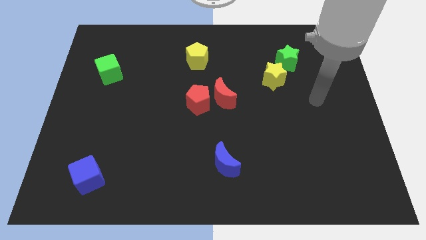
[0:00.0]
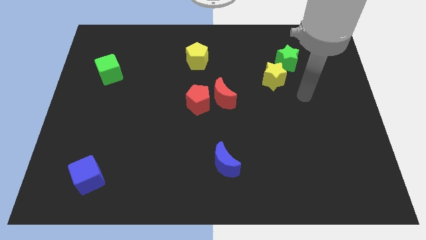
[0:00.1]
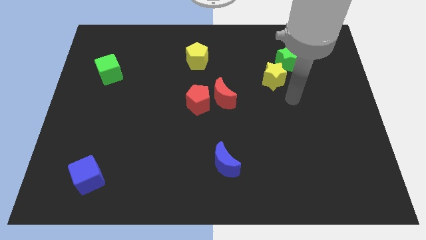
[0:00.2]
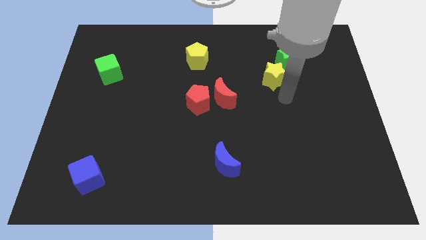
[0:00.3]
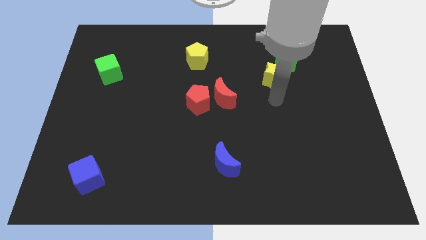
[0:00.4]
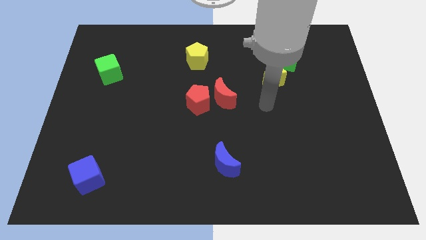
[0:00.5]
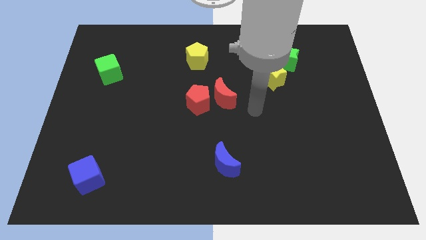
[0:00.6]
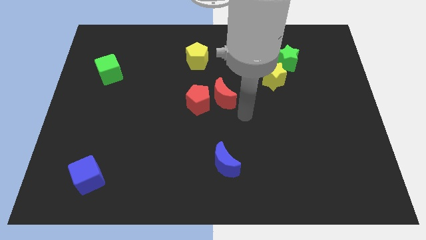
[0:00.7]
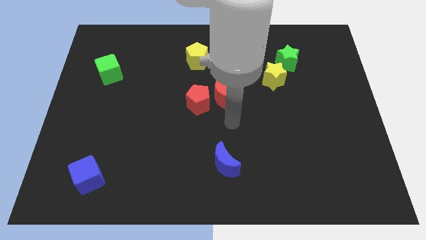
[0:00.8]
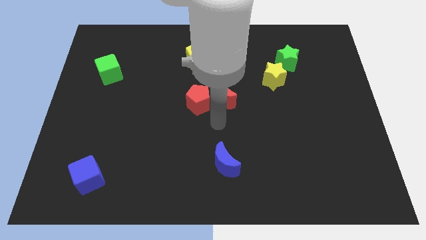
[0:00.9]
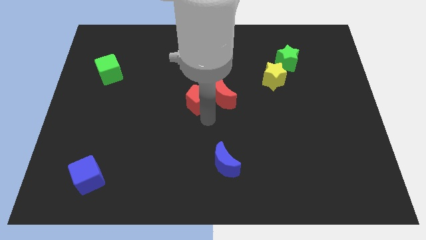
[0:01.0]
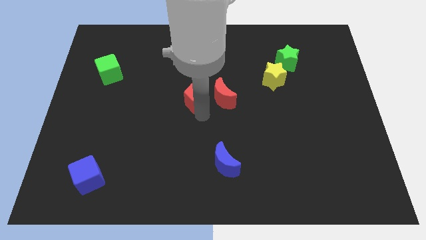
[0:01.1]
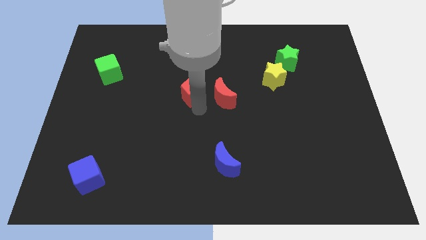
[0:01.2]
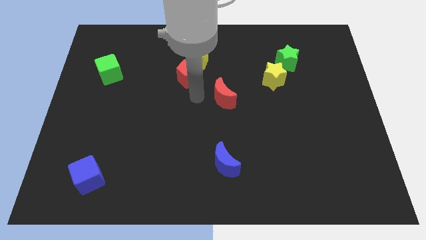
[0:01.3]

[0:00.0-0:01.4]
move the red moon away from the red pentagon

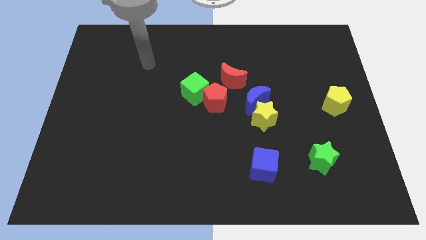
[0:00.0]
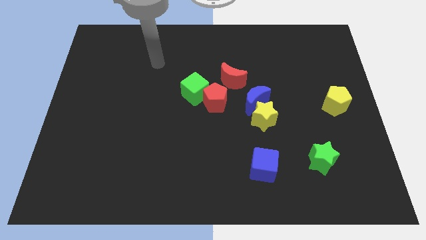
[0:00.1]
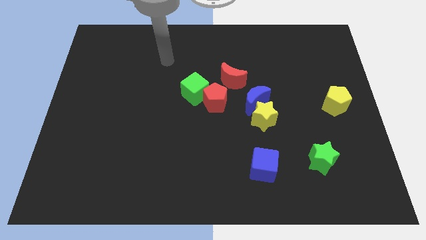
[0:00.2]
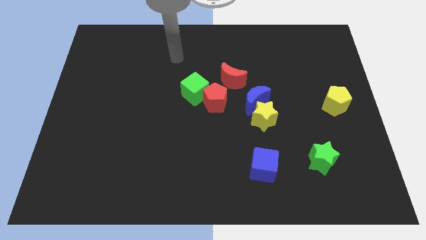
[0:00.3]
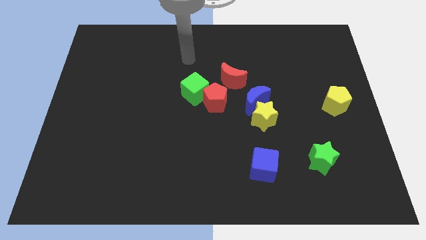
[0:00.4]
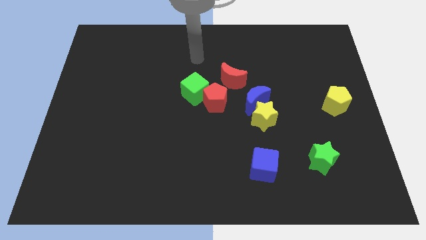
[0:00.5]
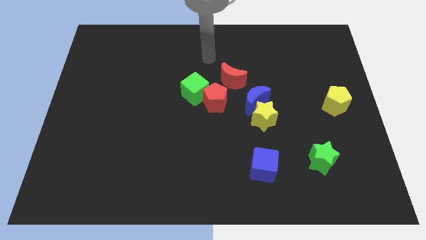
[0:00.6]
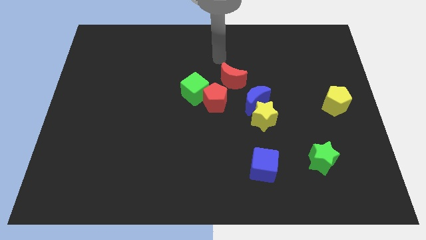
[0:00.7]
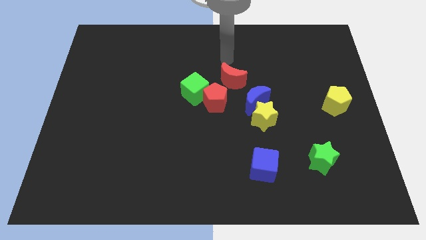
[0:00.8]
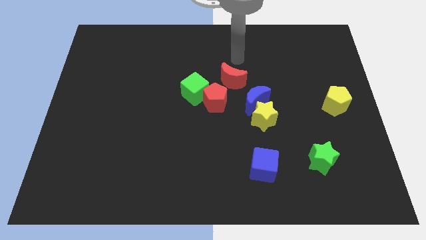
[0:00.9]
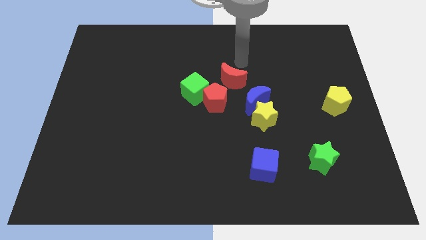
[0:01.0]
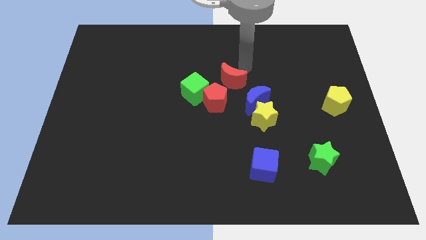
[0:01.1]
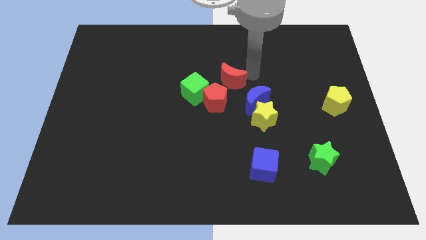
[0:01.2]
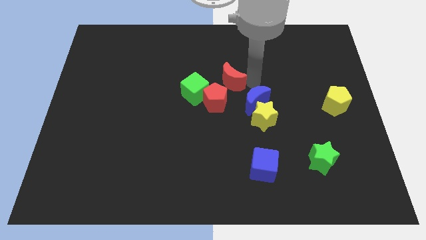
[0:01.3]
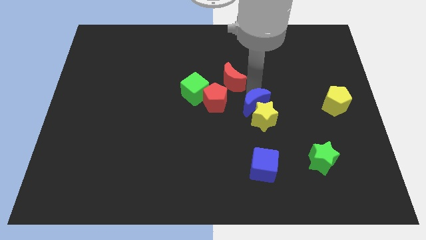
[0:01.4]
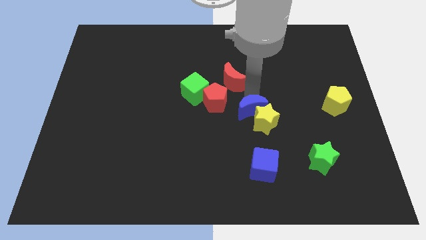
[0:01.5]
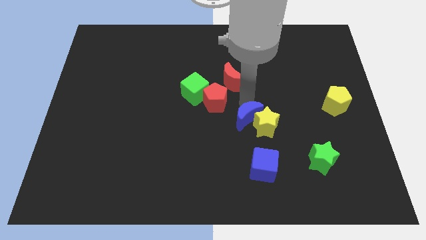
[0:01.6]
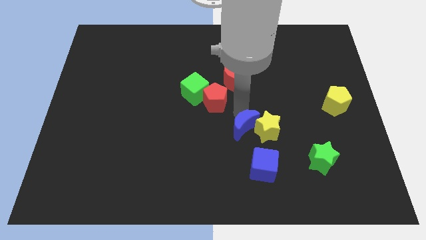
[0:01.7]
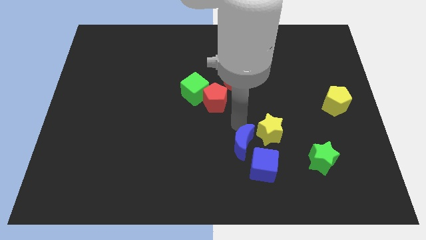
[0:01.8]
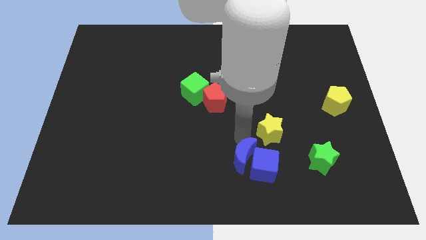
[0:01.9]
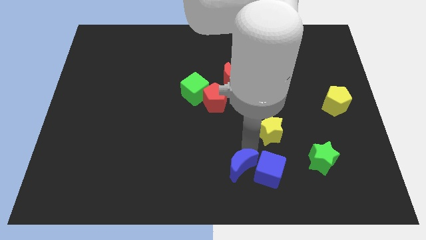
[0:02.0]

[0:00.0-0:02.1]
pull the yellow star apart from the blue moon

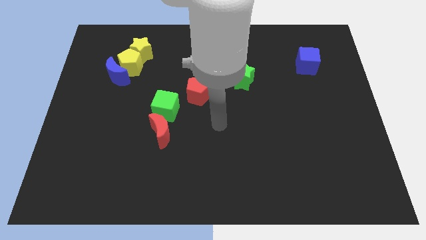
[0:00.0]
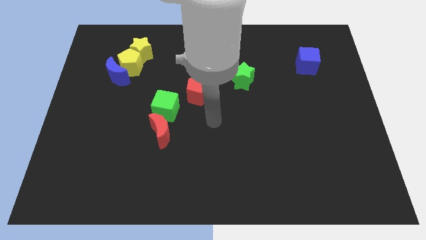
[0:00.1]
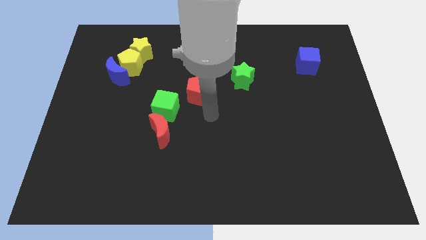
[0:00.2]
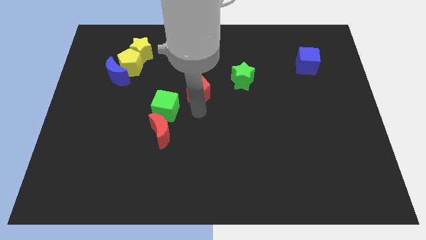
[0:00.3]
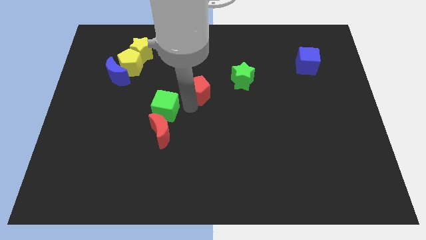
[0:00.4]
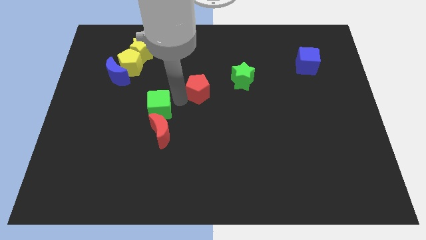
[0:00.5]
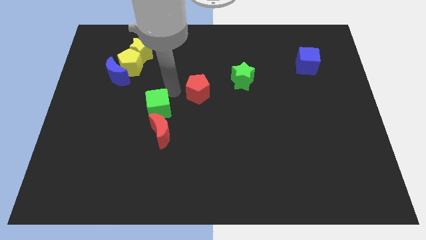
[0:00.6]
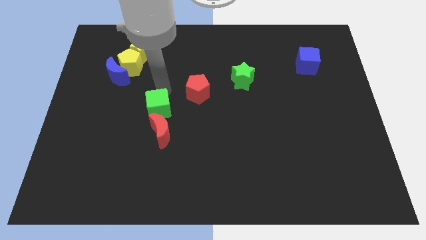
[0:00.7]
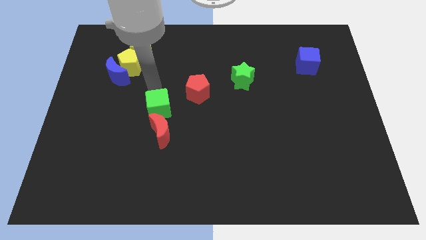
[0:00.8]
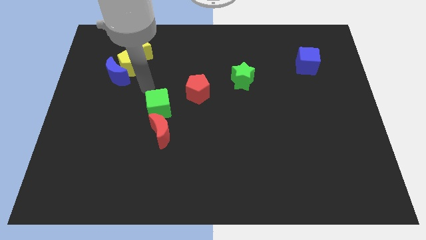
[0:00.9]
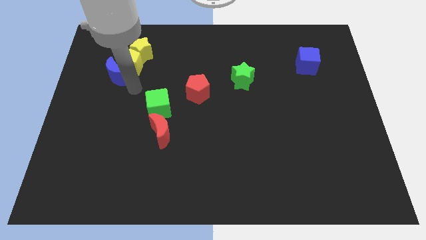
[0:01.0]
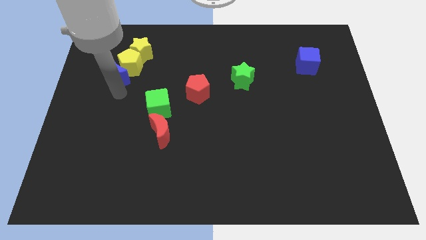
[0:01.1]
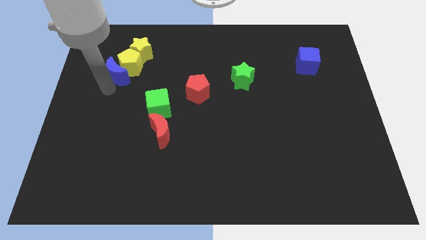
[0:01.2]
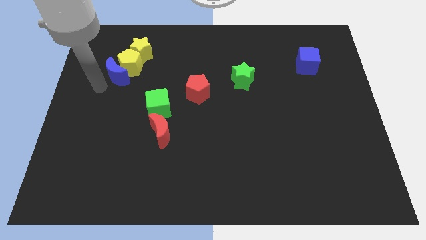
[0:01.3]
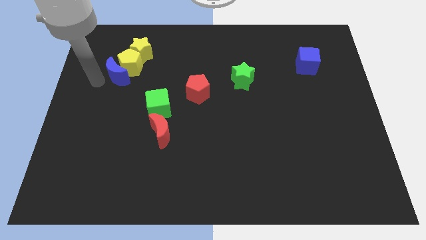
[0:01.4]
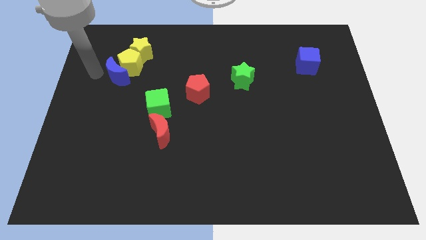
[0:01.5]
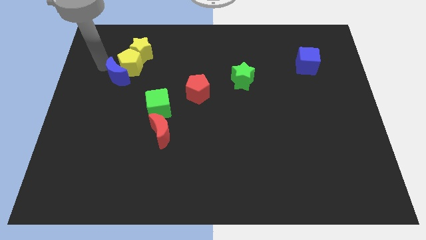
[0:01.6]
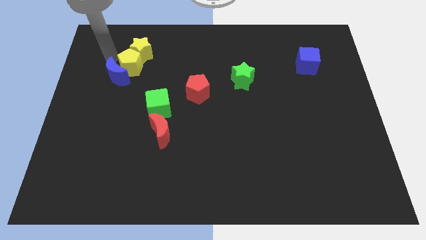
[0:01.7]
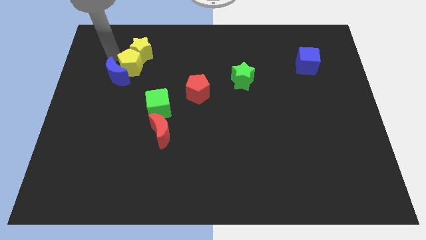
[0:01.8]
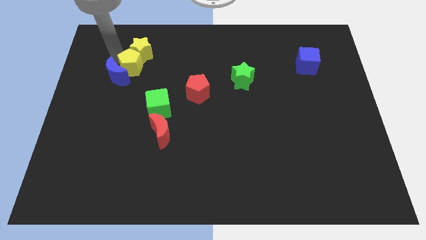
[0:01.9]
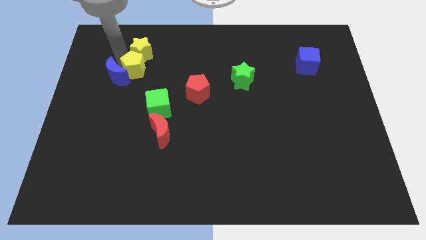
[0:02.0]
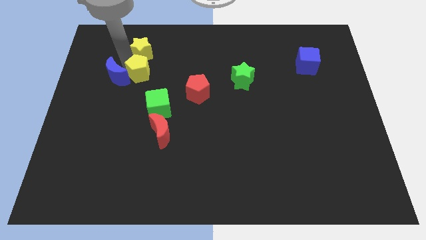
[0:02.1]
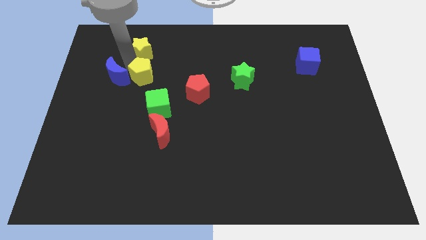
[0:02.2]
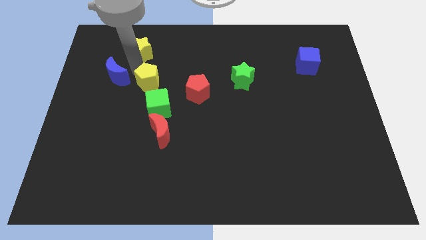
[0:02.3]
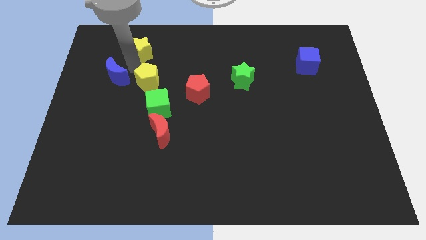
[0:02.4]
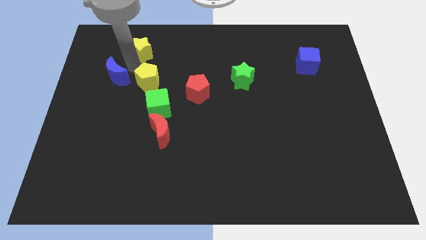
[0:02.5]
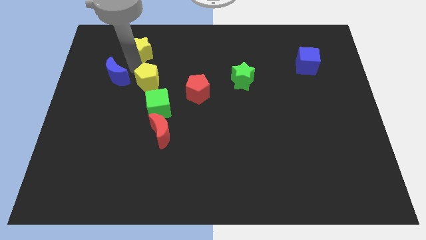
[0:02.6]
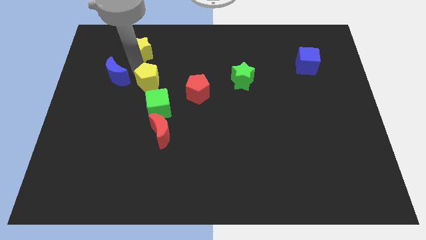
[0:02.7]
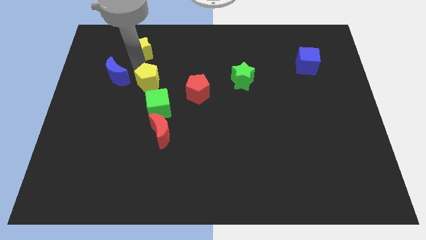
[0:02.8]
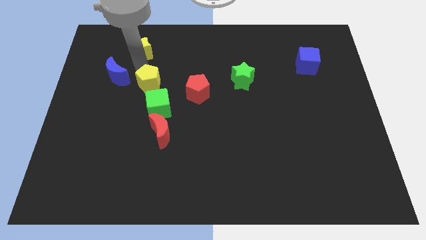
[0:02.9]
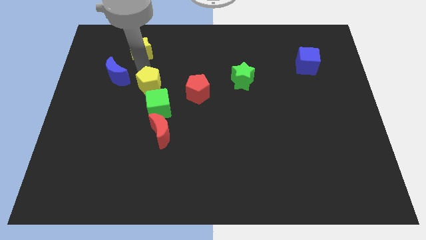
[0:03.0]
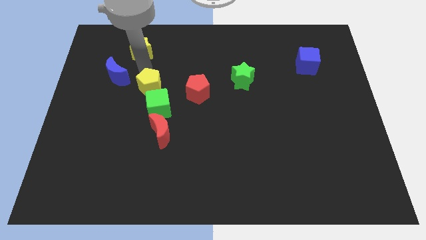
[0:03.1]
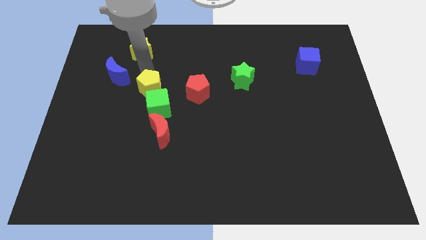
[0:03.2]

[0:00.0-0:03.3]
separate the yellow pentagon from the blue moon and yellow star

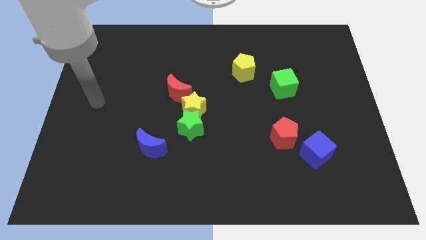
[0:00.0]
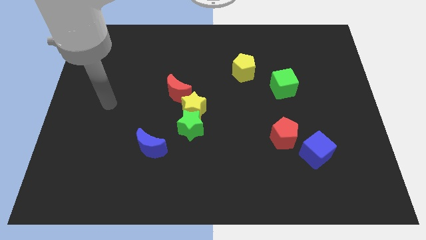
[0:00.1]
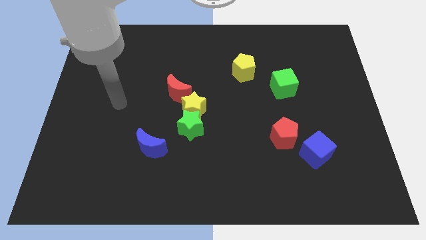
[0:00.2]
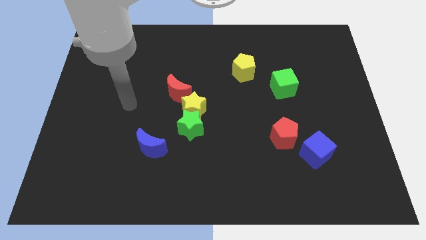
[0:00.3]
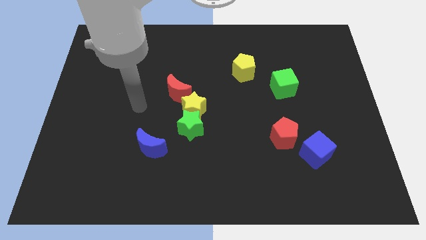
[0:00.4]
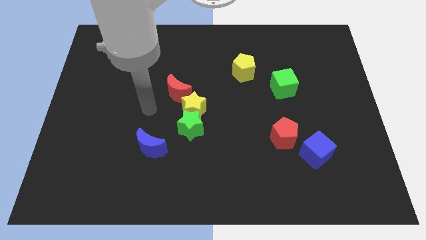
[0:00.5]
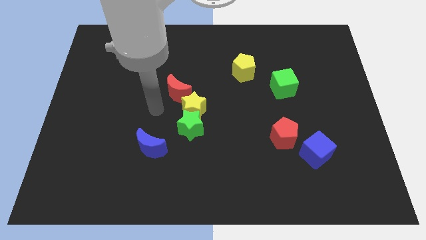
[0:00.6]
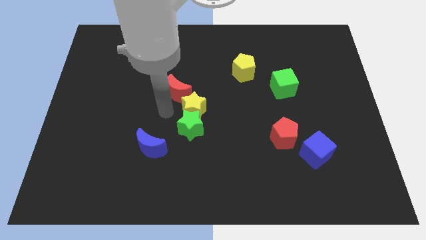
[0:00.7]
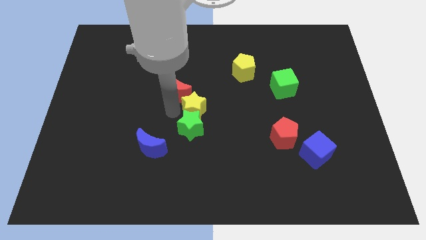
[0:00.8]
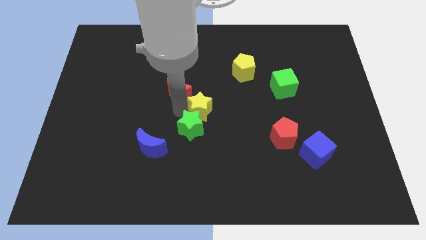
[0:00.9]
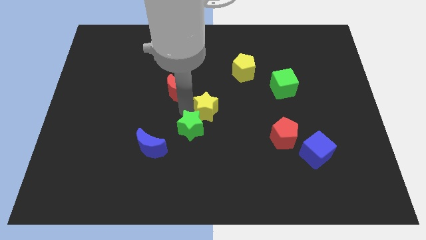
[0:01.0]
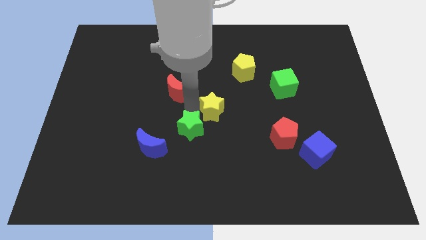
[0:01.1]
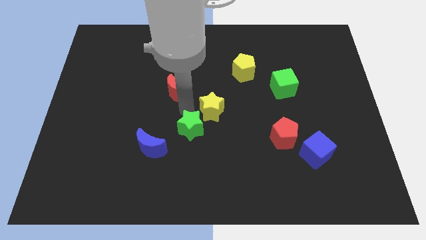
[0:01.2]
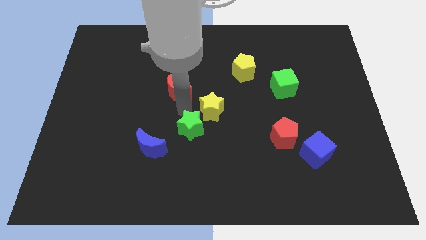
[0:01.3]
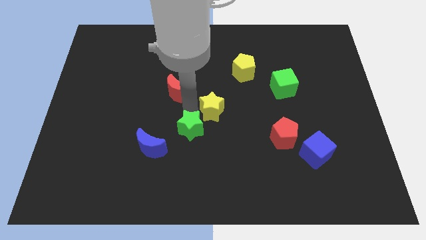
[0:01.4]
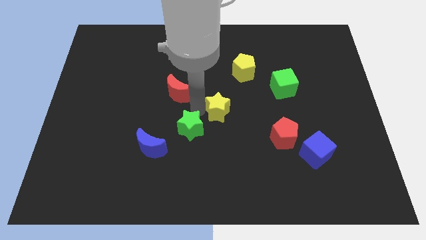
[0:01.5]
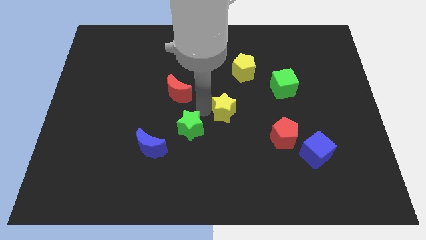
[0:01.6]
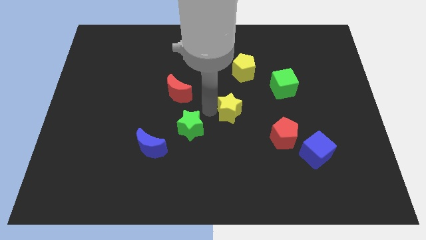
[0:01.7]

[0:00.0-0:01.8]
move the yellow star away from the green star and red moon

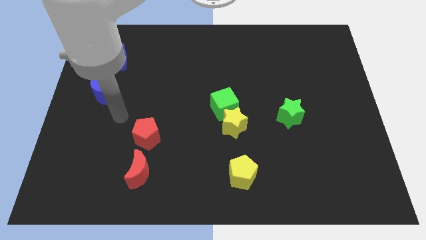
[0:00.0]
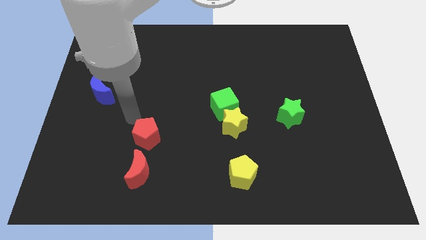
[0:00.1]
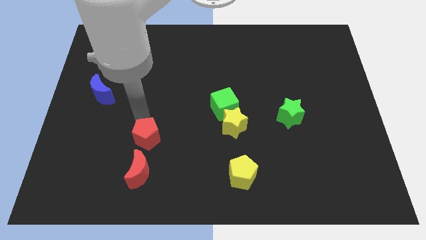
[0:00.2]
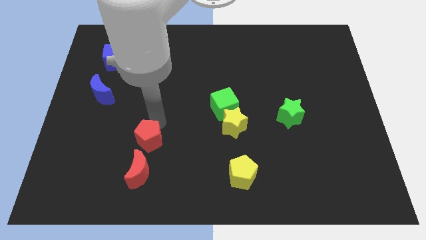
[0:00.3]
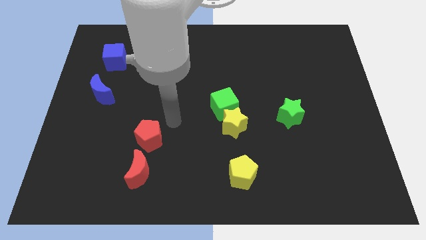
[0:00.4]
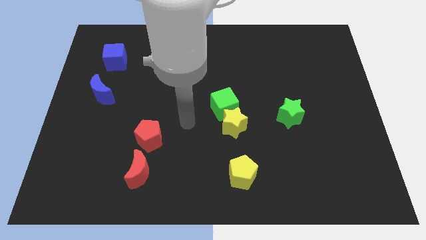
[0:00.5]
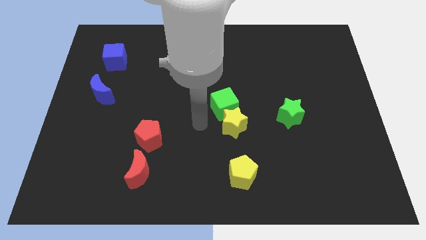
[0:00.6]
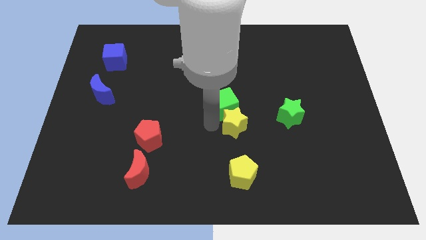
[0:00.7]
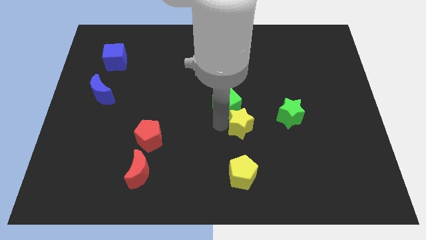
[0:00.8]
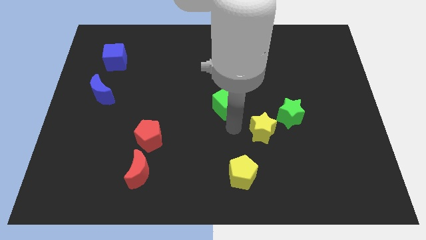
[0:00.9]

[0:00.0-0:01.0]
separate the green cube from the yellow star
